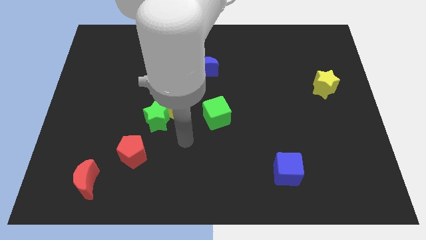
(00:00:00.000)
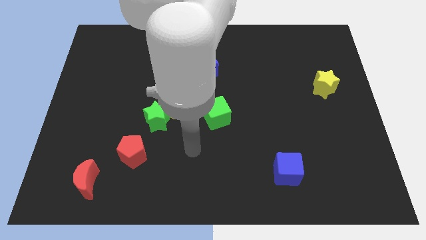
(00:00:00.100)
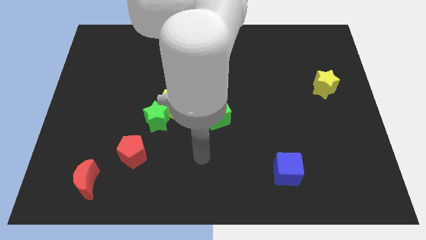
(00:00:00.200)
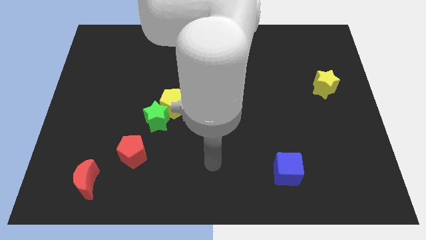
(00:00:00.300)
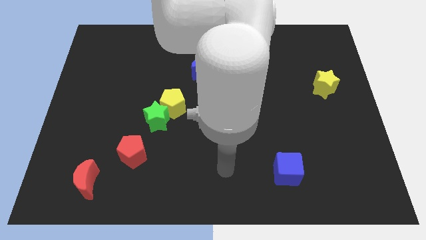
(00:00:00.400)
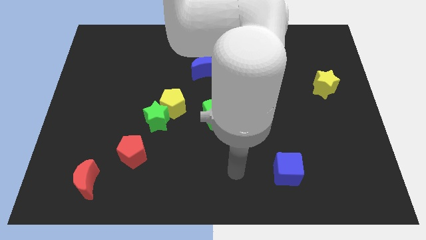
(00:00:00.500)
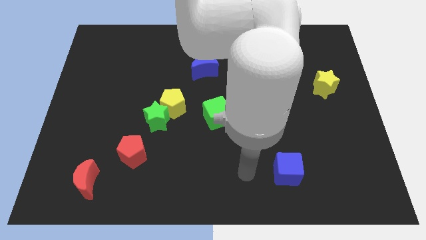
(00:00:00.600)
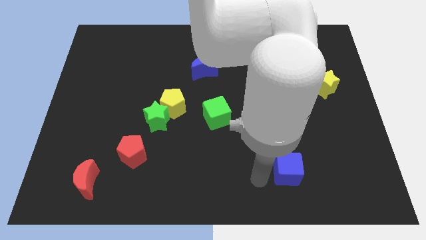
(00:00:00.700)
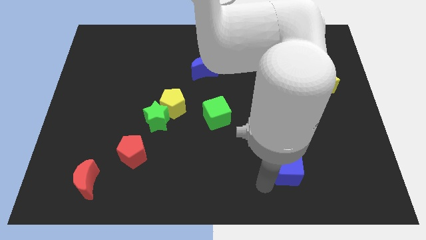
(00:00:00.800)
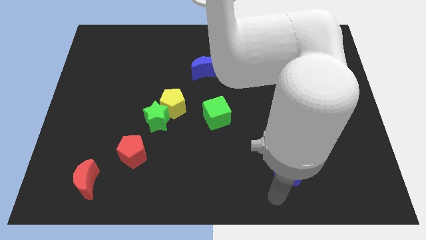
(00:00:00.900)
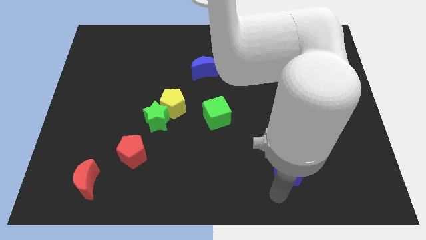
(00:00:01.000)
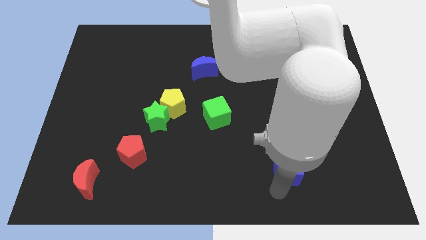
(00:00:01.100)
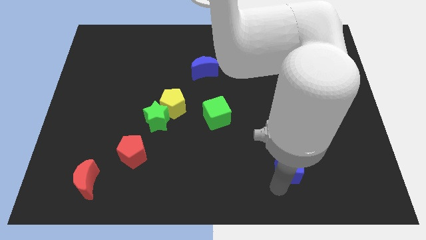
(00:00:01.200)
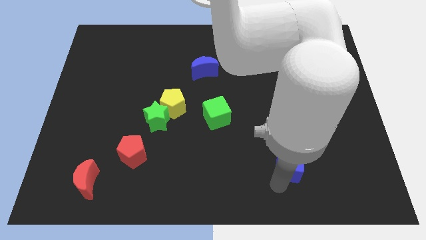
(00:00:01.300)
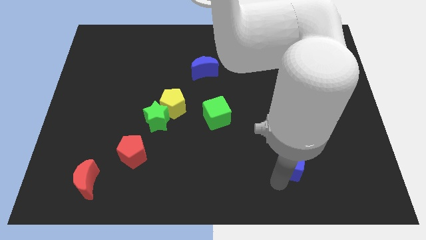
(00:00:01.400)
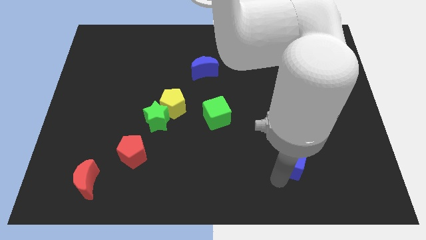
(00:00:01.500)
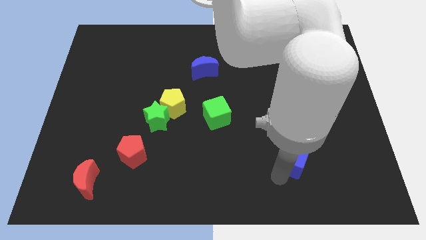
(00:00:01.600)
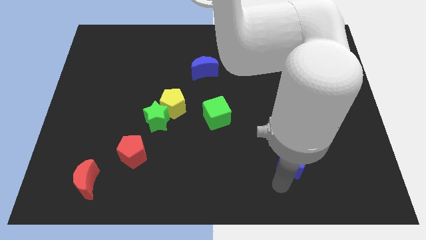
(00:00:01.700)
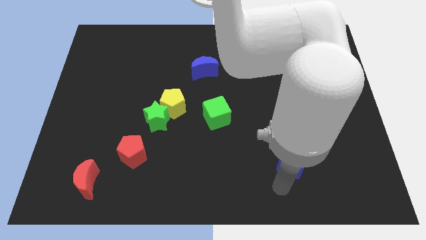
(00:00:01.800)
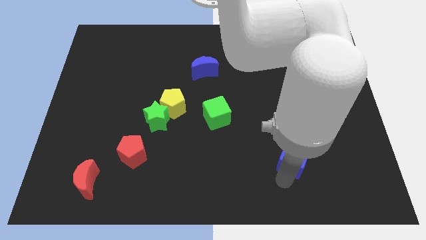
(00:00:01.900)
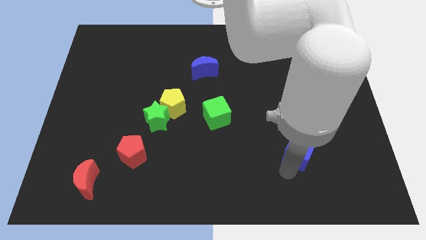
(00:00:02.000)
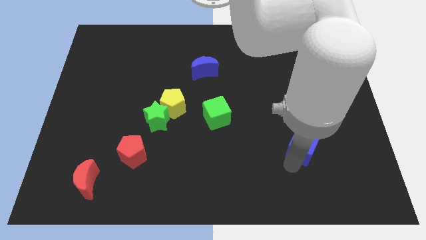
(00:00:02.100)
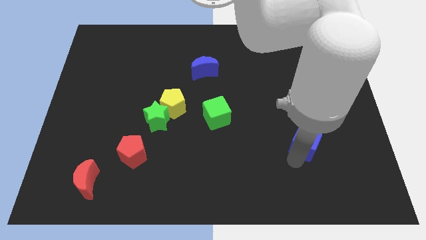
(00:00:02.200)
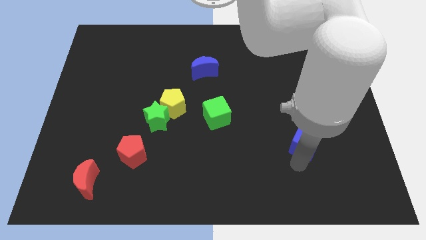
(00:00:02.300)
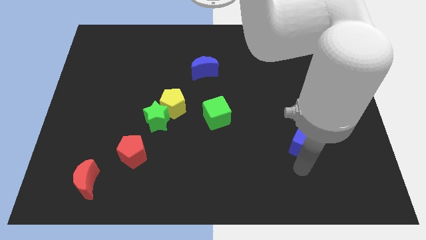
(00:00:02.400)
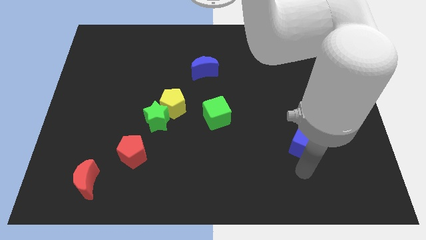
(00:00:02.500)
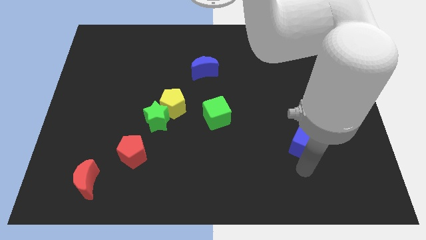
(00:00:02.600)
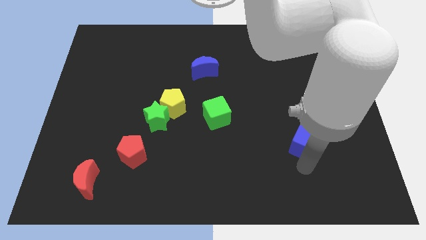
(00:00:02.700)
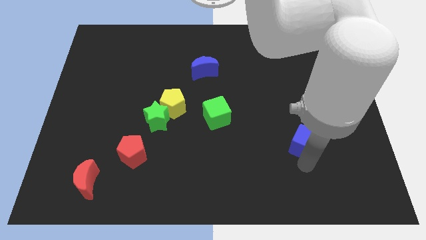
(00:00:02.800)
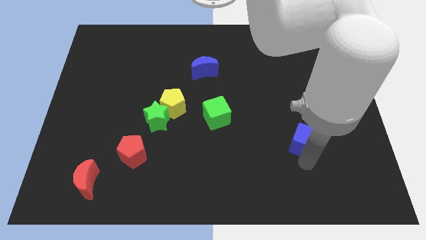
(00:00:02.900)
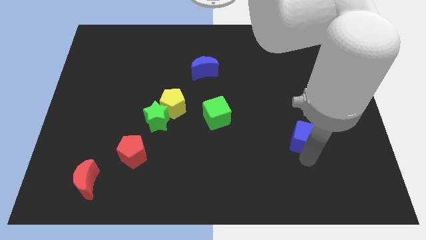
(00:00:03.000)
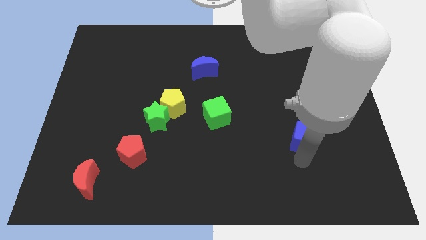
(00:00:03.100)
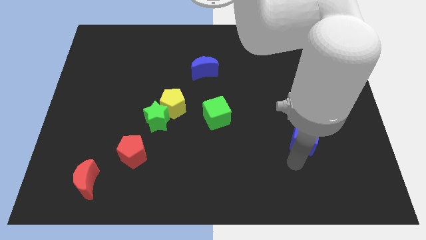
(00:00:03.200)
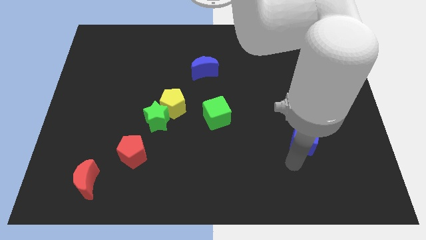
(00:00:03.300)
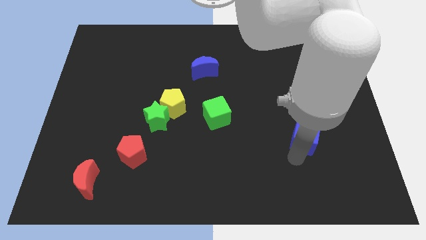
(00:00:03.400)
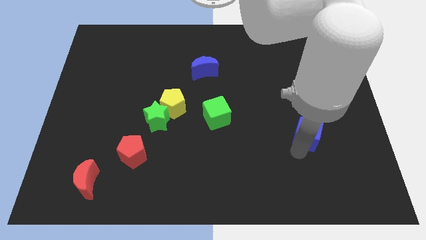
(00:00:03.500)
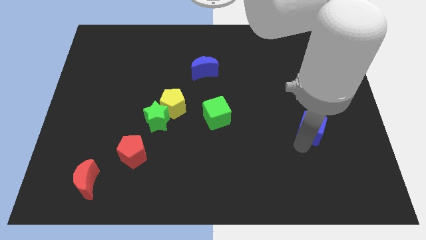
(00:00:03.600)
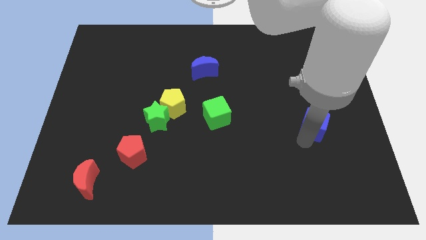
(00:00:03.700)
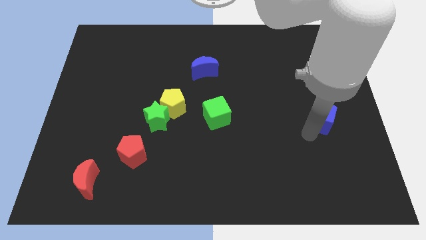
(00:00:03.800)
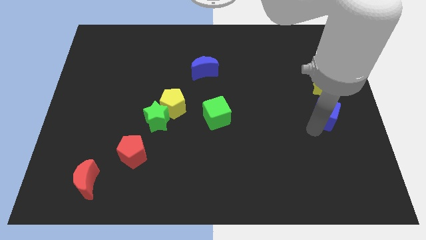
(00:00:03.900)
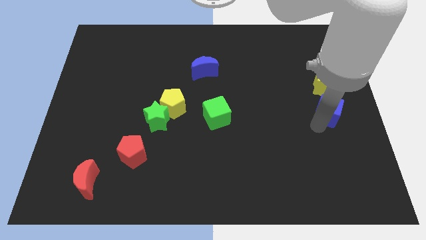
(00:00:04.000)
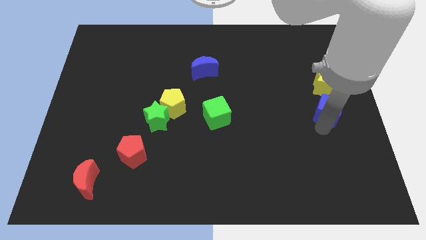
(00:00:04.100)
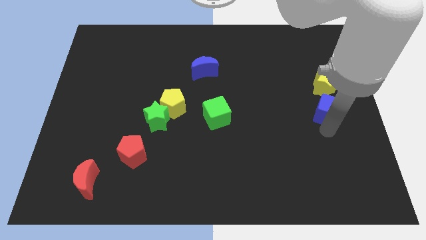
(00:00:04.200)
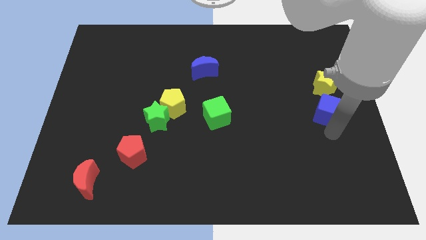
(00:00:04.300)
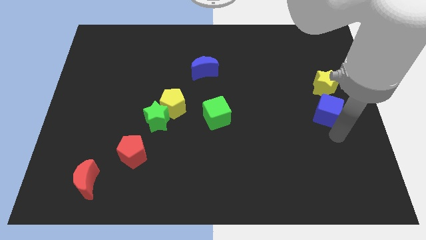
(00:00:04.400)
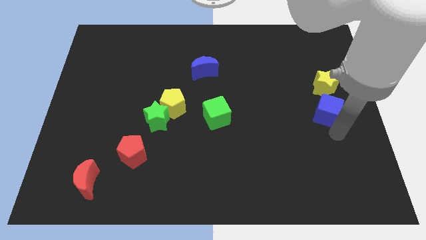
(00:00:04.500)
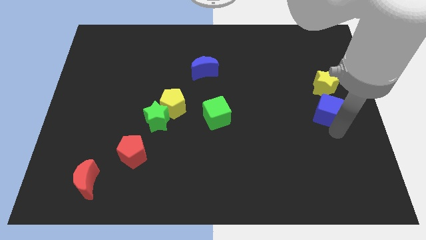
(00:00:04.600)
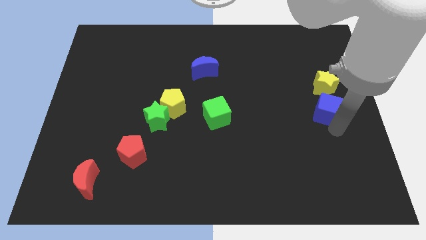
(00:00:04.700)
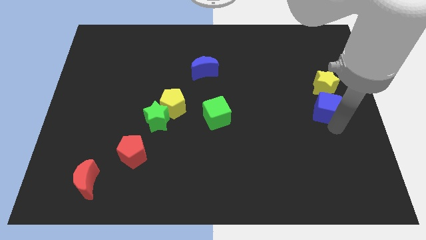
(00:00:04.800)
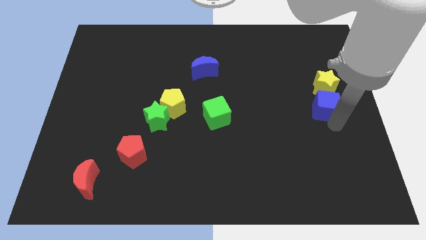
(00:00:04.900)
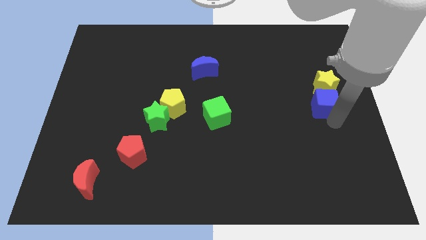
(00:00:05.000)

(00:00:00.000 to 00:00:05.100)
put the blue cube towards the yellow star

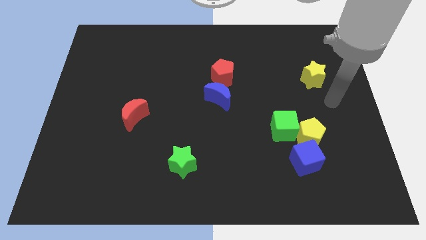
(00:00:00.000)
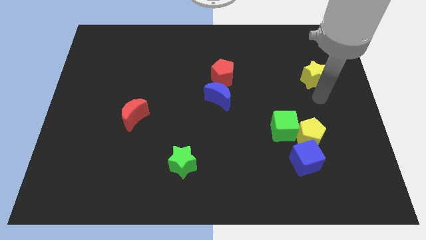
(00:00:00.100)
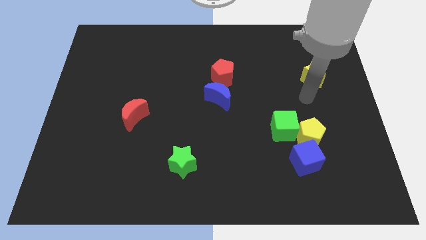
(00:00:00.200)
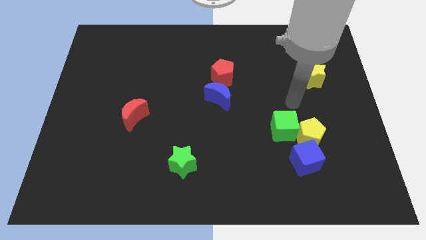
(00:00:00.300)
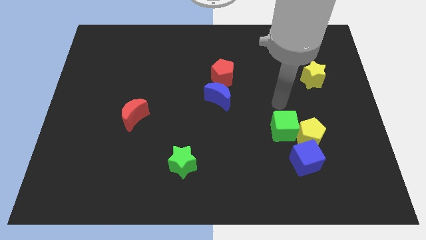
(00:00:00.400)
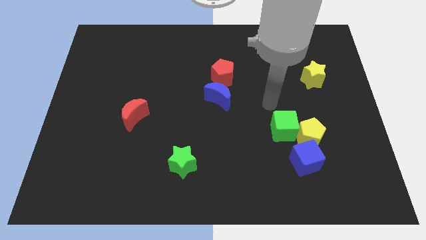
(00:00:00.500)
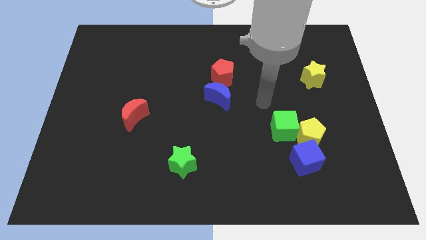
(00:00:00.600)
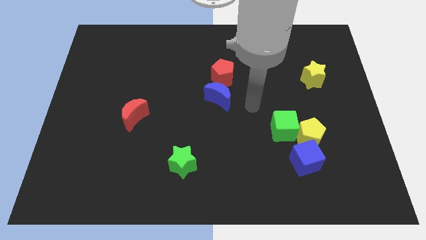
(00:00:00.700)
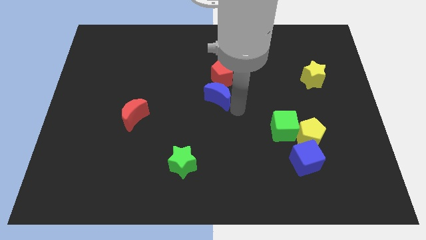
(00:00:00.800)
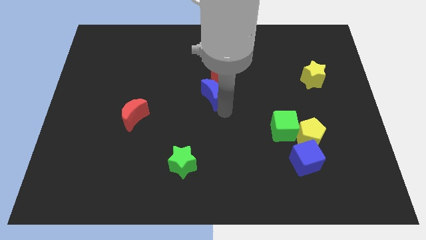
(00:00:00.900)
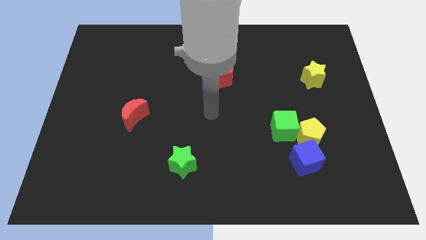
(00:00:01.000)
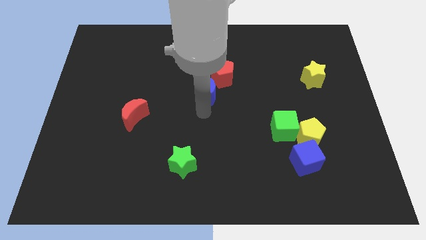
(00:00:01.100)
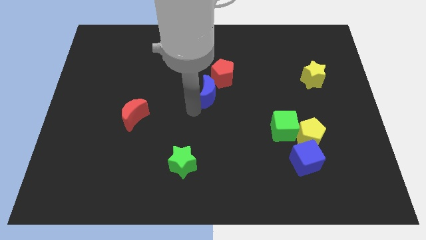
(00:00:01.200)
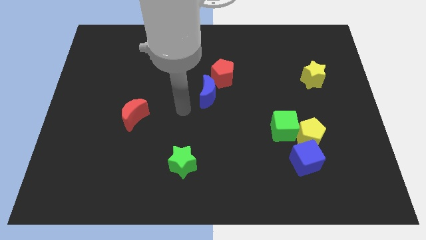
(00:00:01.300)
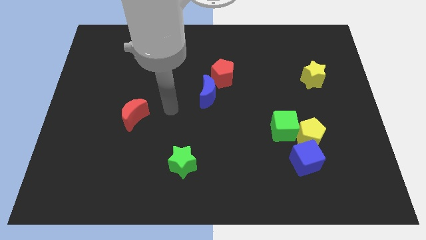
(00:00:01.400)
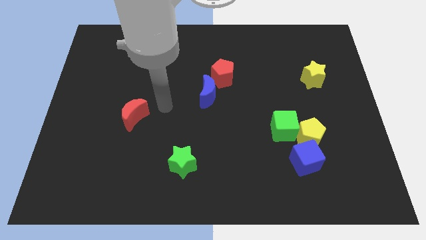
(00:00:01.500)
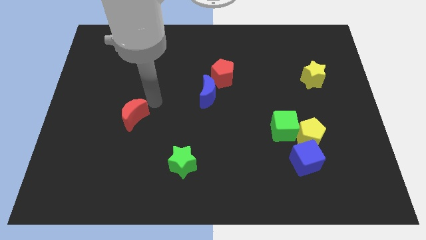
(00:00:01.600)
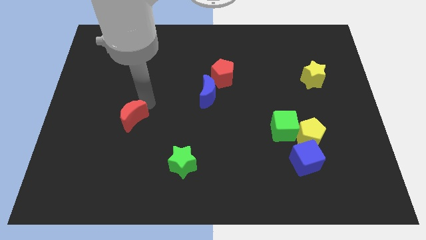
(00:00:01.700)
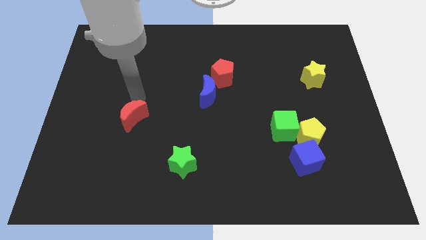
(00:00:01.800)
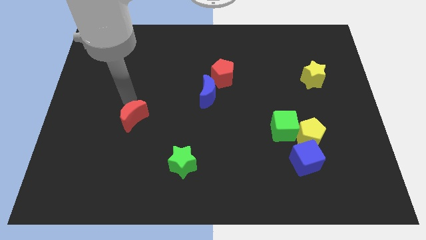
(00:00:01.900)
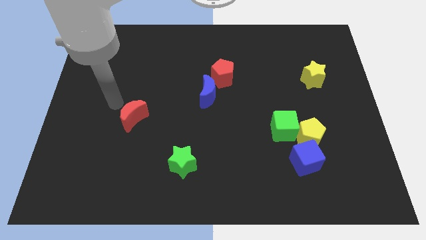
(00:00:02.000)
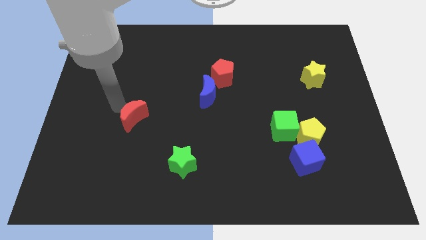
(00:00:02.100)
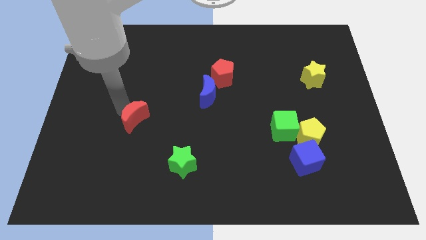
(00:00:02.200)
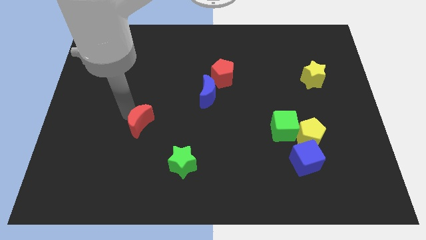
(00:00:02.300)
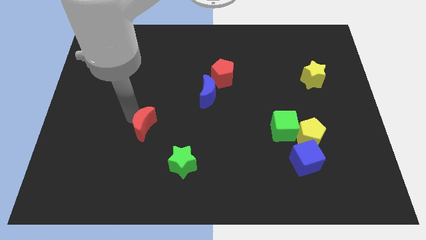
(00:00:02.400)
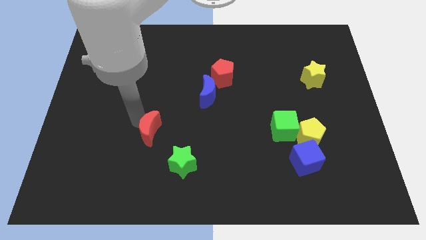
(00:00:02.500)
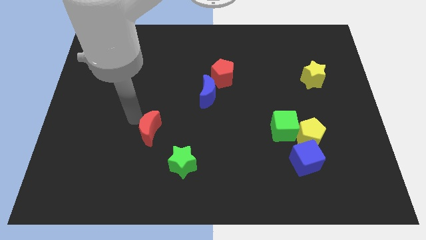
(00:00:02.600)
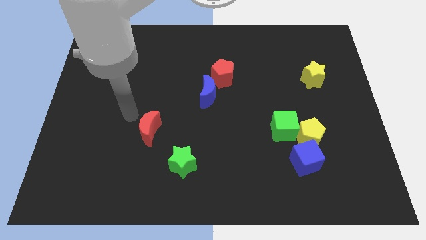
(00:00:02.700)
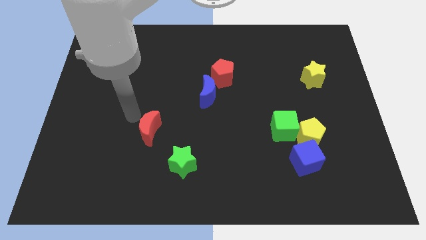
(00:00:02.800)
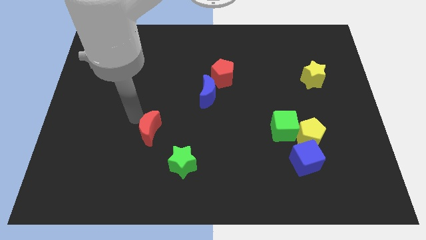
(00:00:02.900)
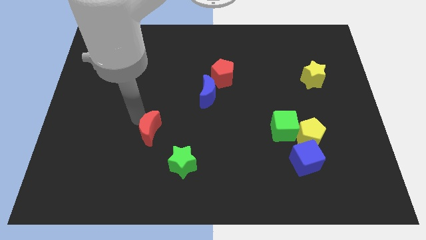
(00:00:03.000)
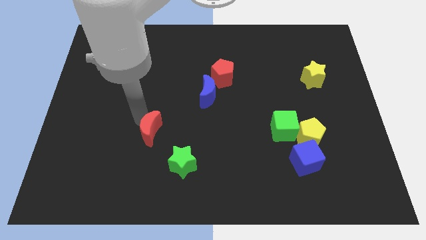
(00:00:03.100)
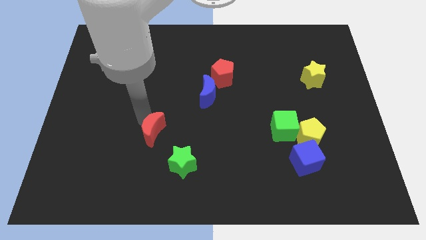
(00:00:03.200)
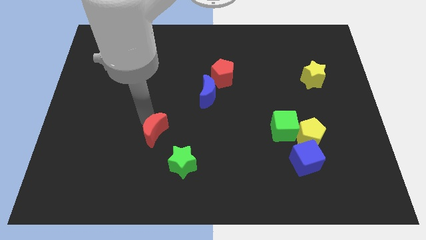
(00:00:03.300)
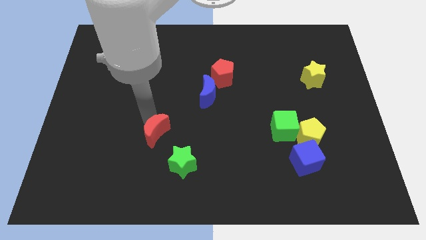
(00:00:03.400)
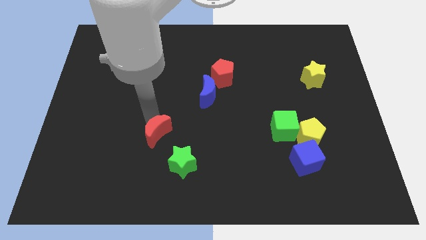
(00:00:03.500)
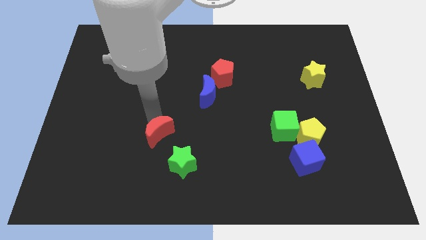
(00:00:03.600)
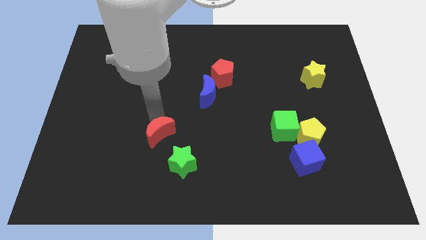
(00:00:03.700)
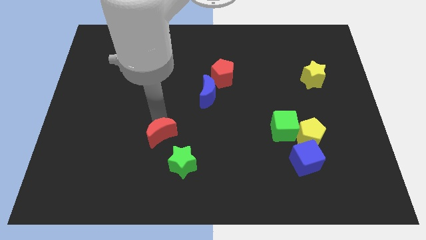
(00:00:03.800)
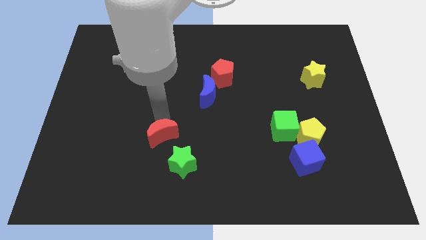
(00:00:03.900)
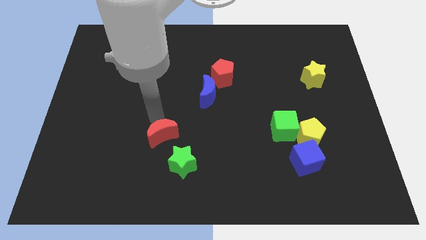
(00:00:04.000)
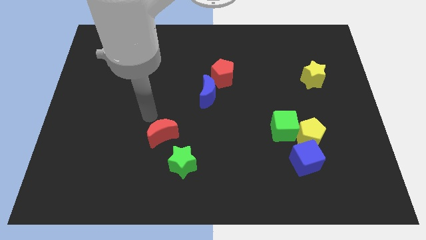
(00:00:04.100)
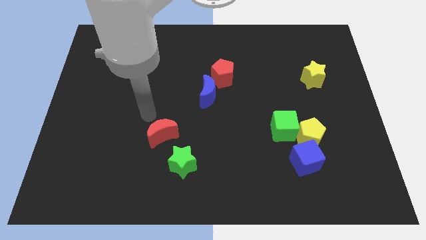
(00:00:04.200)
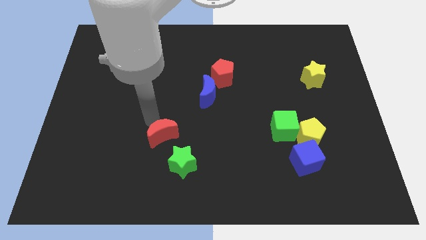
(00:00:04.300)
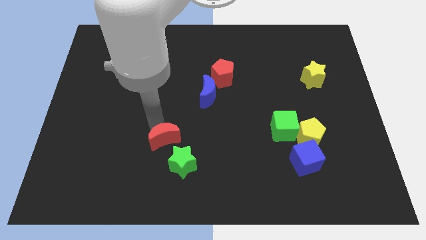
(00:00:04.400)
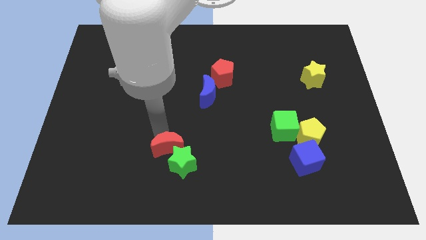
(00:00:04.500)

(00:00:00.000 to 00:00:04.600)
slide the red moon towards the green star
